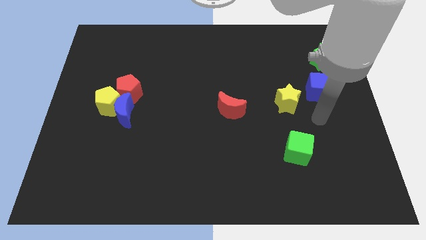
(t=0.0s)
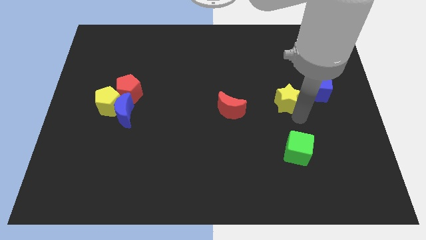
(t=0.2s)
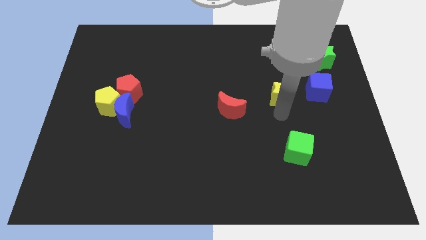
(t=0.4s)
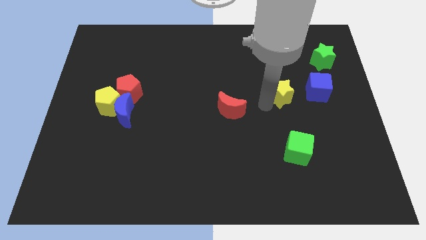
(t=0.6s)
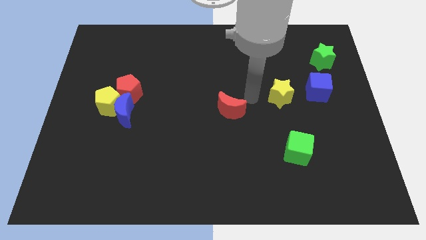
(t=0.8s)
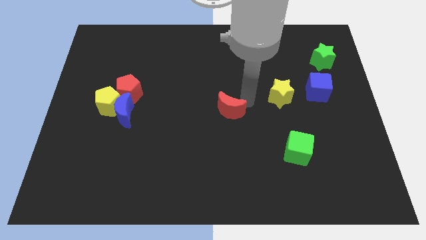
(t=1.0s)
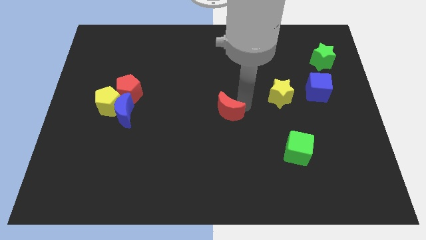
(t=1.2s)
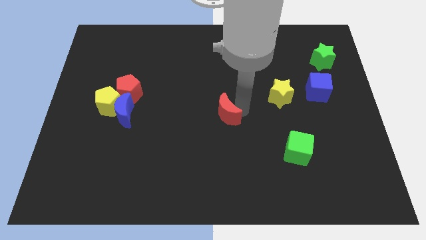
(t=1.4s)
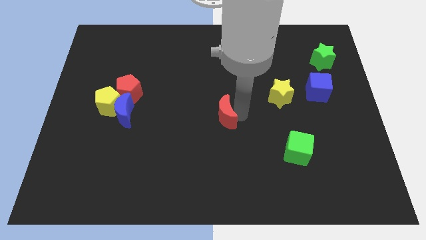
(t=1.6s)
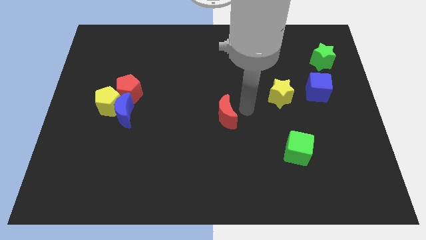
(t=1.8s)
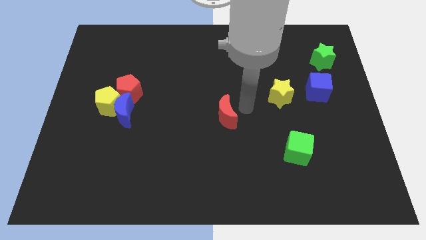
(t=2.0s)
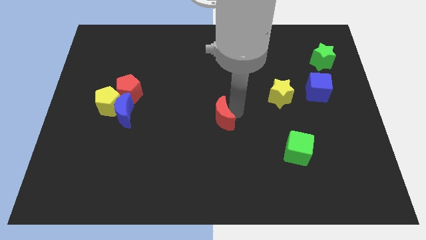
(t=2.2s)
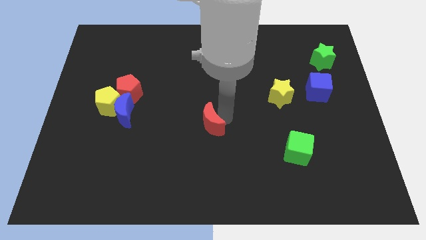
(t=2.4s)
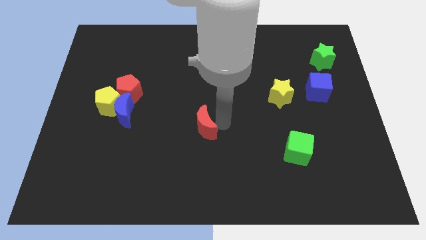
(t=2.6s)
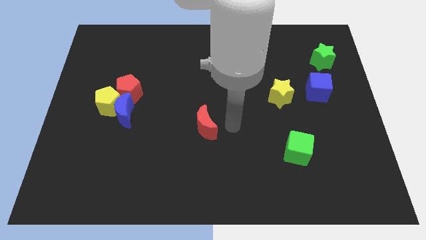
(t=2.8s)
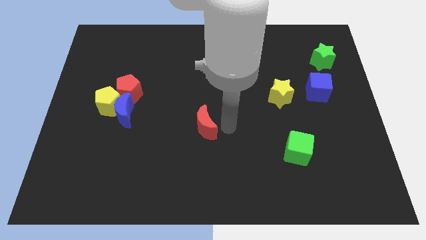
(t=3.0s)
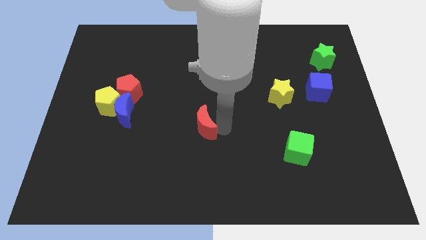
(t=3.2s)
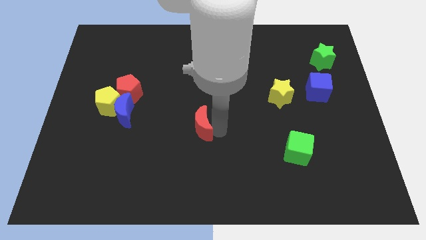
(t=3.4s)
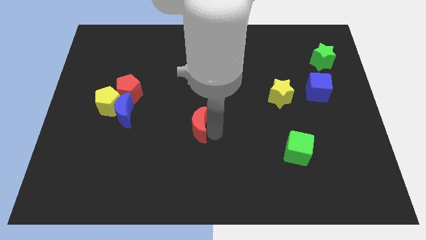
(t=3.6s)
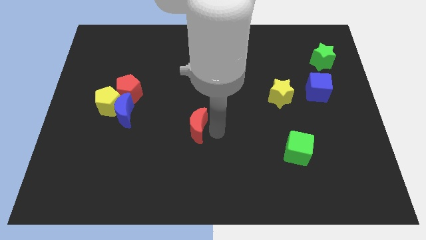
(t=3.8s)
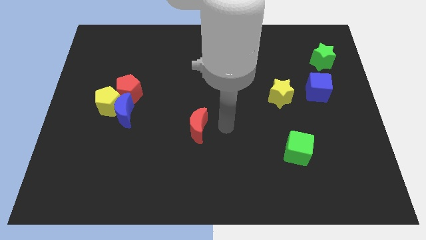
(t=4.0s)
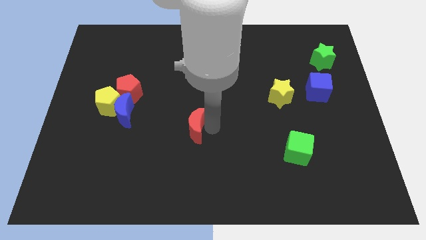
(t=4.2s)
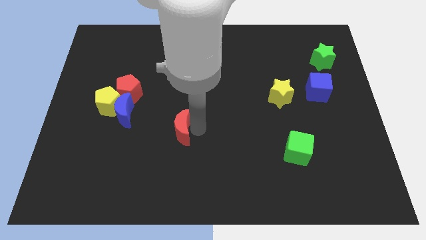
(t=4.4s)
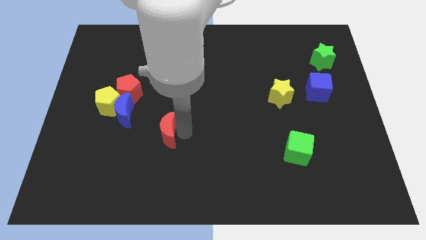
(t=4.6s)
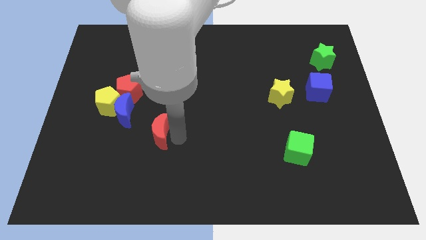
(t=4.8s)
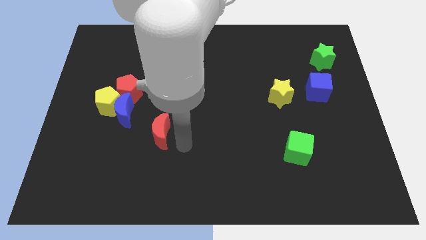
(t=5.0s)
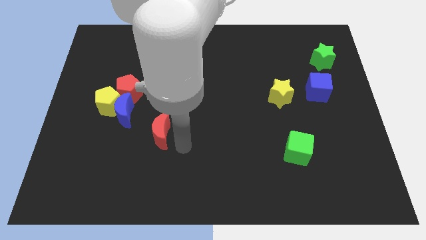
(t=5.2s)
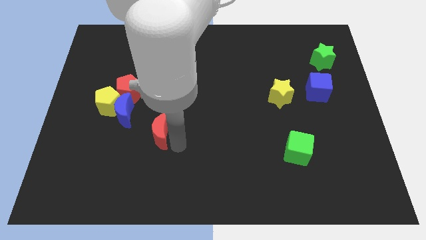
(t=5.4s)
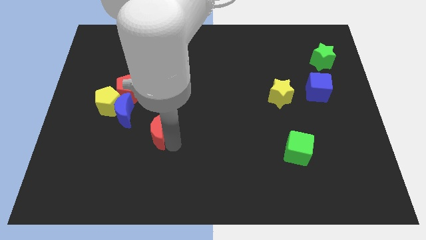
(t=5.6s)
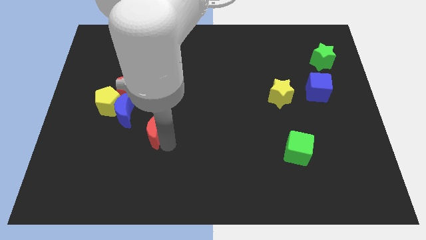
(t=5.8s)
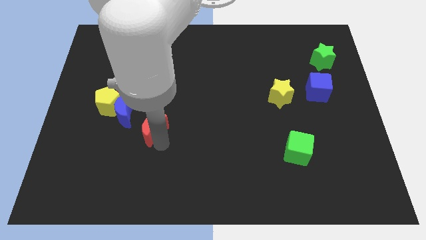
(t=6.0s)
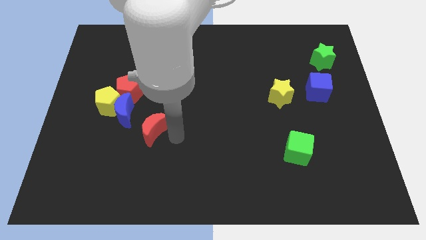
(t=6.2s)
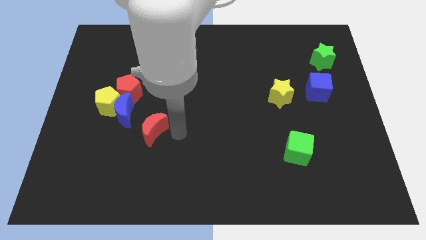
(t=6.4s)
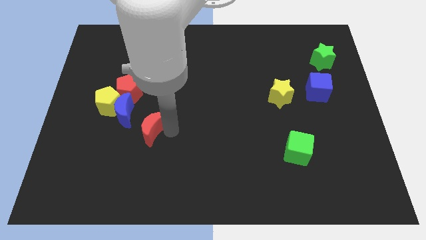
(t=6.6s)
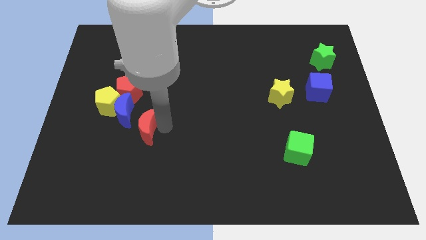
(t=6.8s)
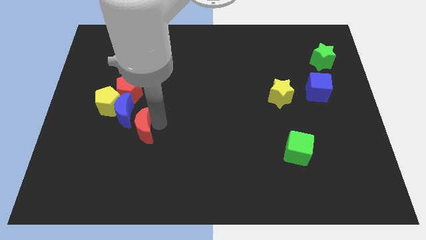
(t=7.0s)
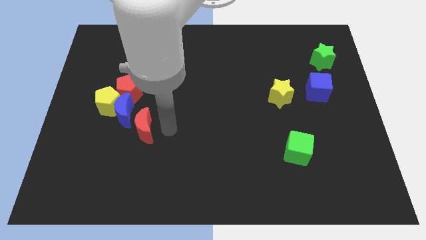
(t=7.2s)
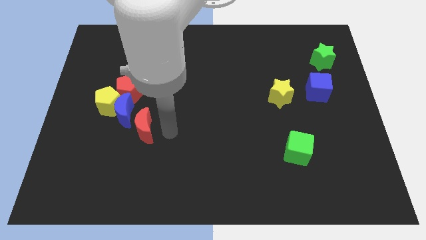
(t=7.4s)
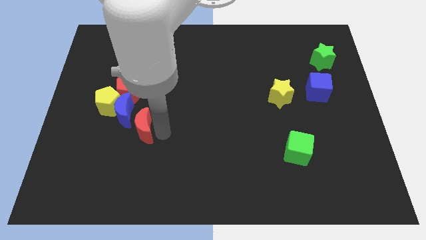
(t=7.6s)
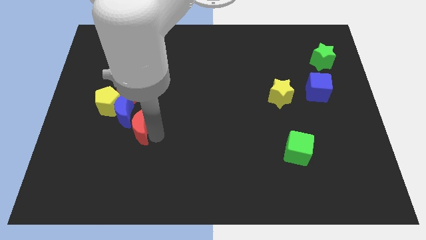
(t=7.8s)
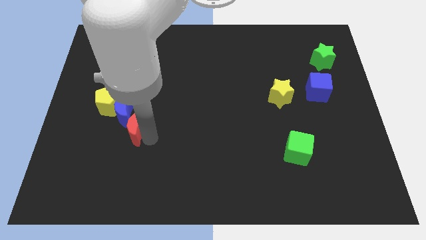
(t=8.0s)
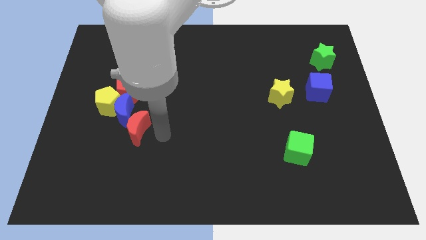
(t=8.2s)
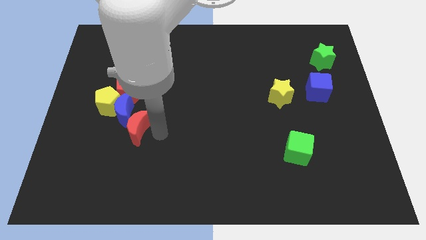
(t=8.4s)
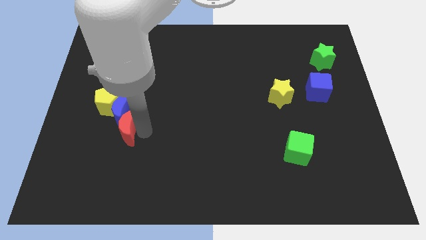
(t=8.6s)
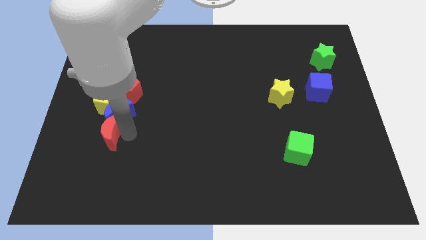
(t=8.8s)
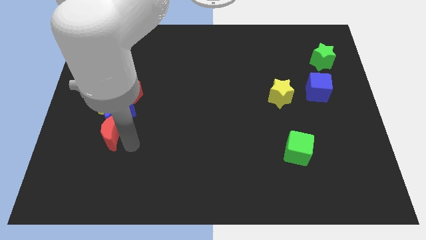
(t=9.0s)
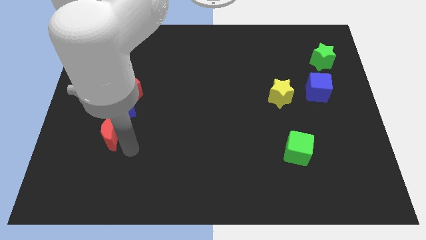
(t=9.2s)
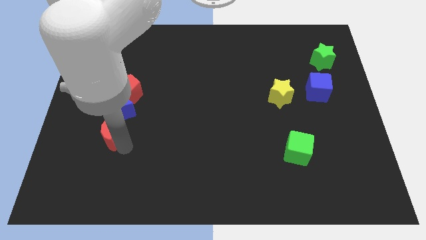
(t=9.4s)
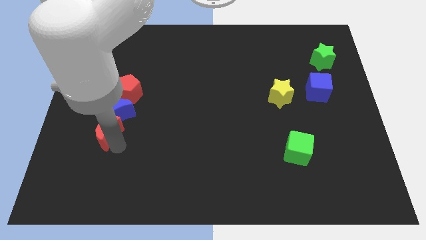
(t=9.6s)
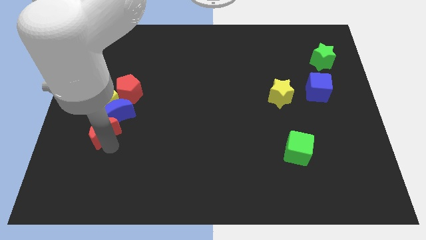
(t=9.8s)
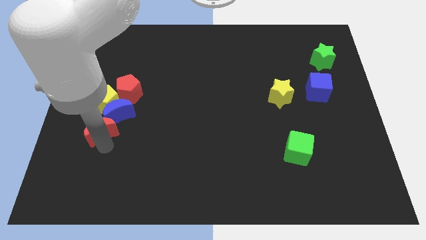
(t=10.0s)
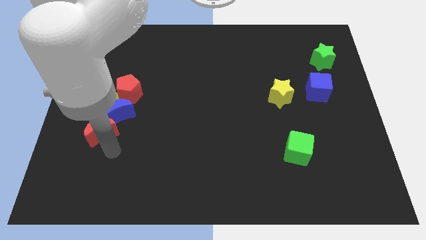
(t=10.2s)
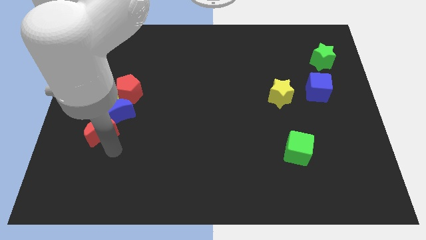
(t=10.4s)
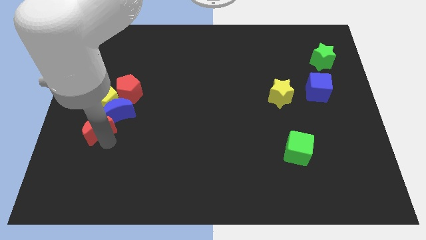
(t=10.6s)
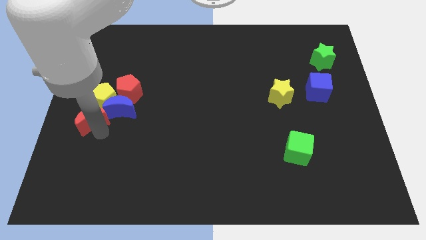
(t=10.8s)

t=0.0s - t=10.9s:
push the red moon to the center left

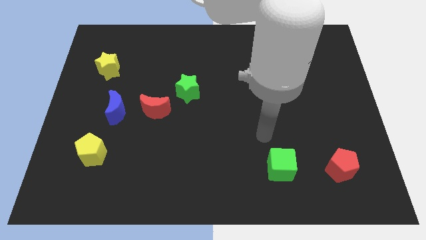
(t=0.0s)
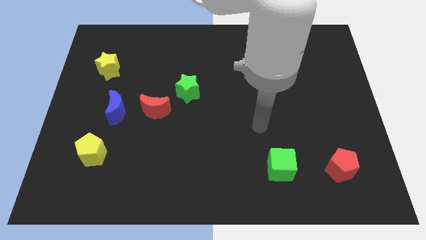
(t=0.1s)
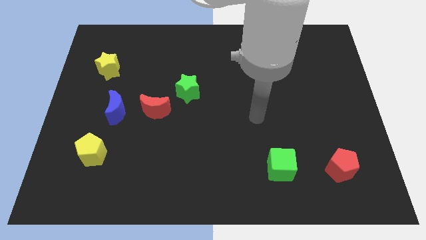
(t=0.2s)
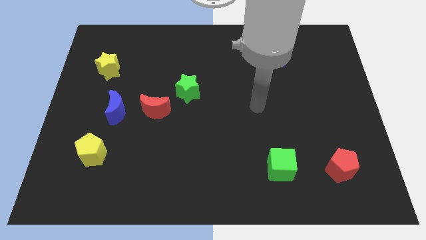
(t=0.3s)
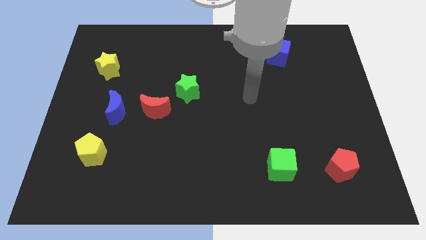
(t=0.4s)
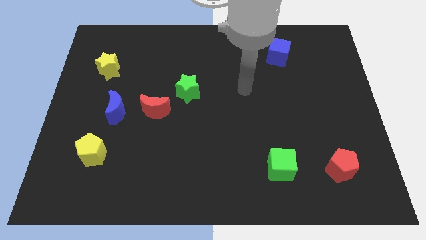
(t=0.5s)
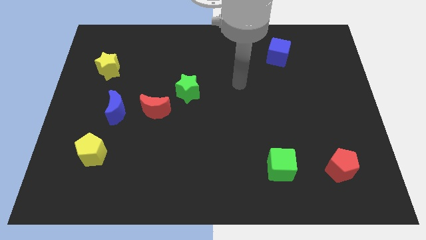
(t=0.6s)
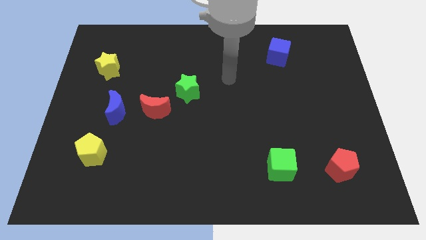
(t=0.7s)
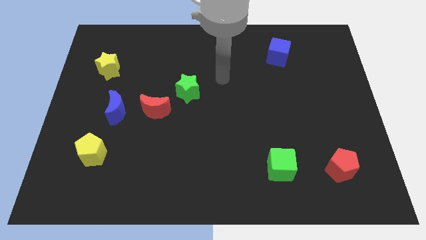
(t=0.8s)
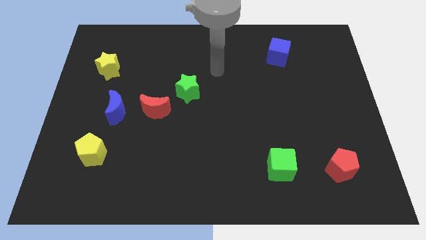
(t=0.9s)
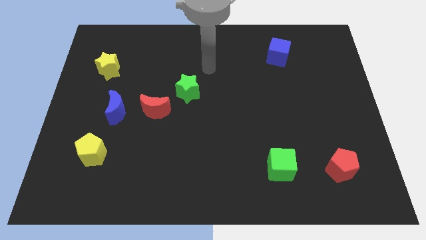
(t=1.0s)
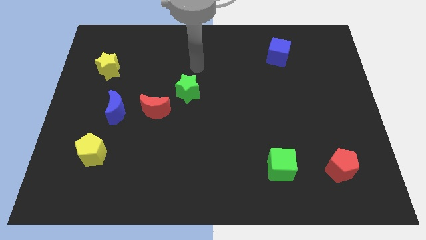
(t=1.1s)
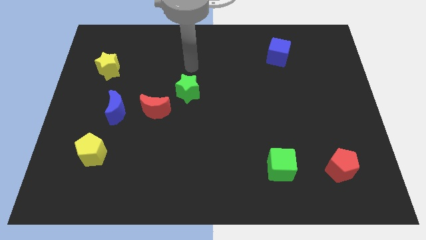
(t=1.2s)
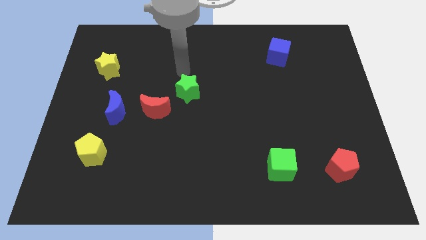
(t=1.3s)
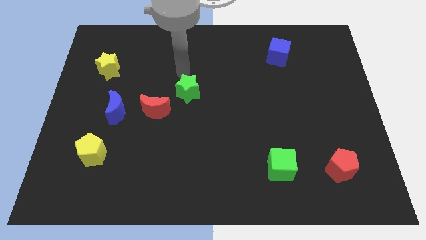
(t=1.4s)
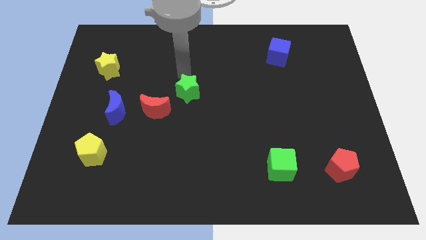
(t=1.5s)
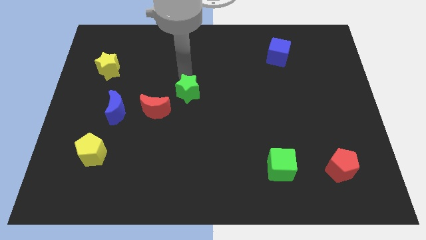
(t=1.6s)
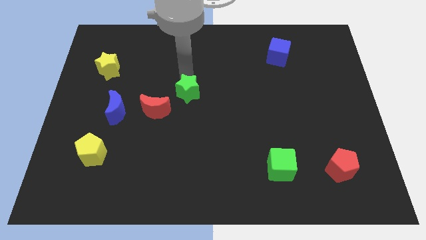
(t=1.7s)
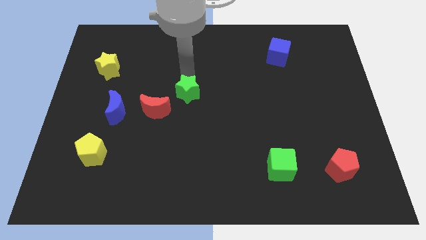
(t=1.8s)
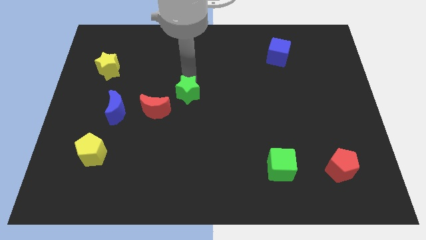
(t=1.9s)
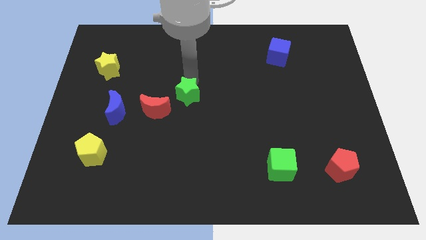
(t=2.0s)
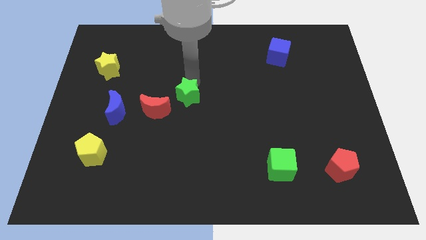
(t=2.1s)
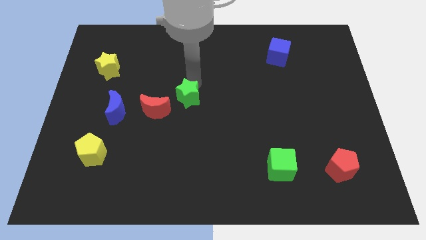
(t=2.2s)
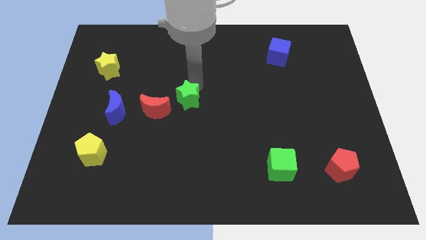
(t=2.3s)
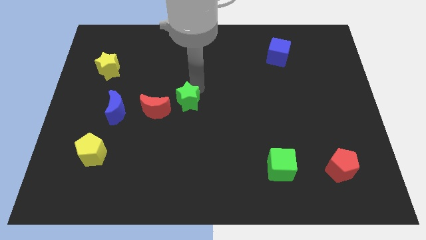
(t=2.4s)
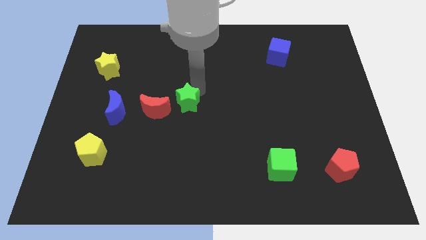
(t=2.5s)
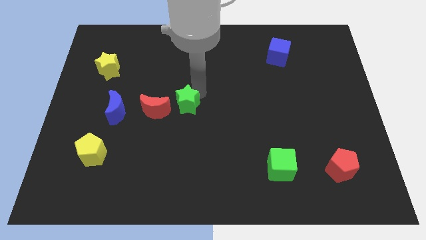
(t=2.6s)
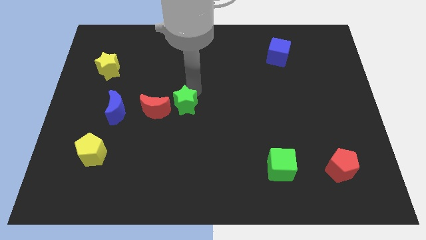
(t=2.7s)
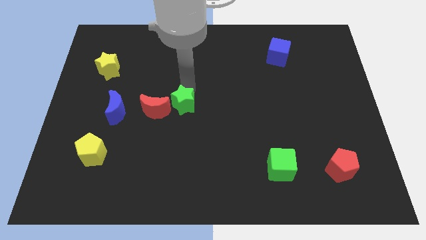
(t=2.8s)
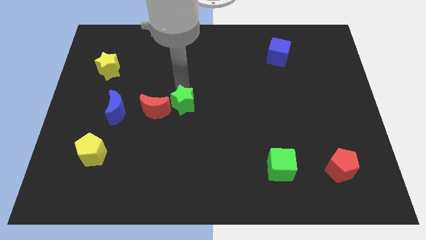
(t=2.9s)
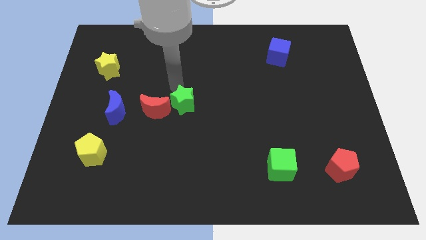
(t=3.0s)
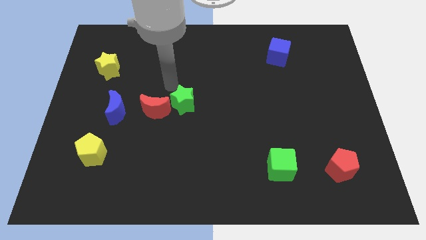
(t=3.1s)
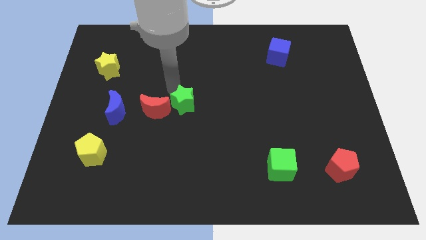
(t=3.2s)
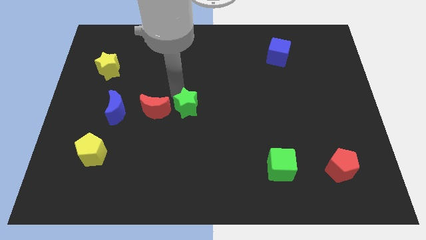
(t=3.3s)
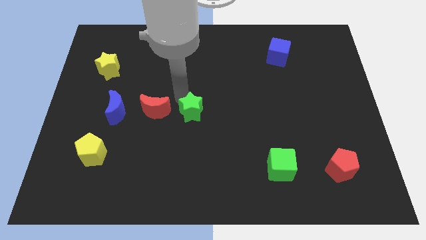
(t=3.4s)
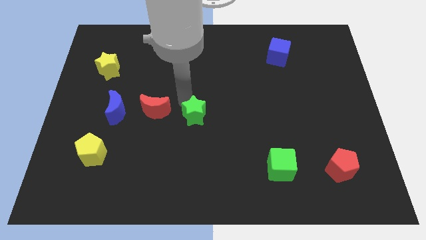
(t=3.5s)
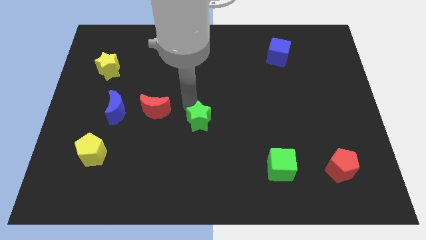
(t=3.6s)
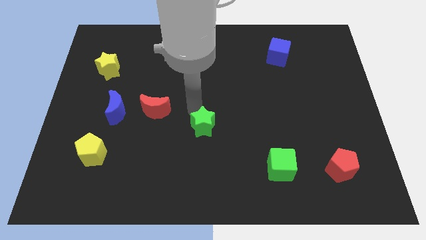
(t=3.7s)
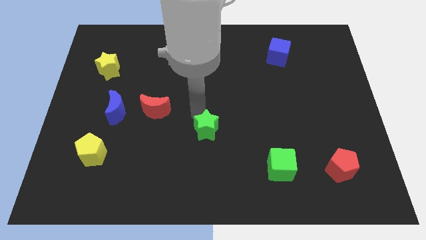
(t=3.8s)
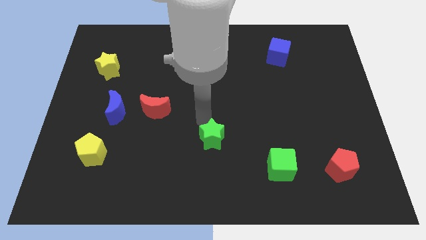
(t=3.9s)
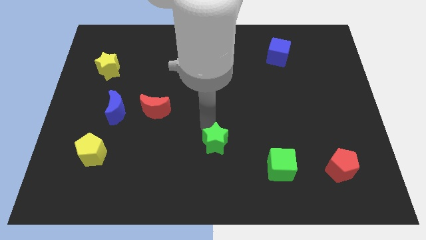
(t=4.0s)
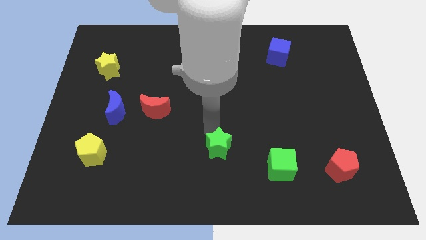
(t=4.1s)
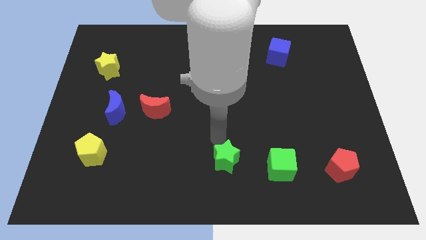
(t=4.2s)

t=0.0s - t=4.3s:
push the green star to the bottom
